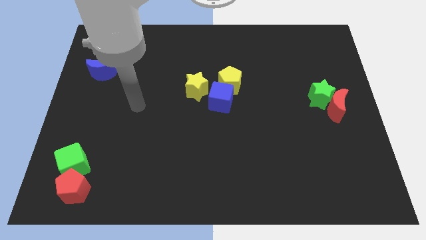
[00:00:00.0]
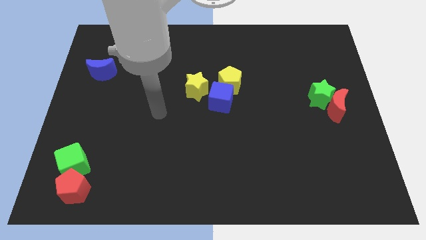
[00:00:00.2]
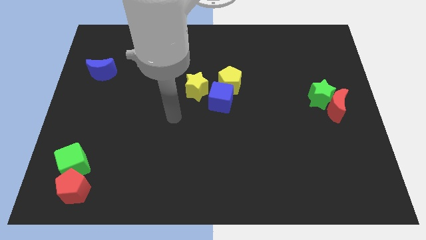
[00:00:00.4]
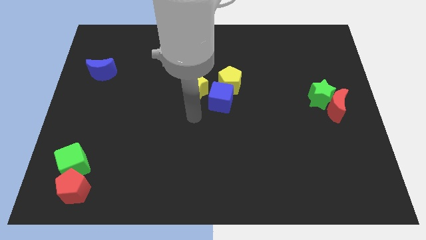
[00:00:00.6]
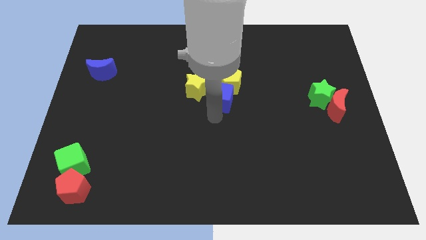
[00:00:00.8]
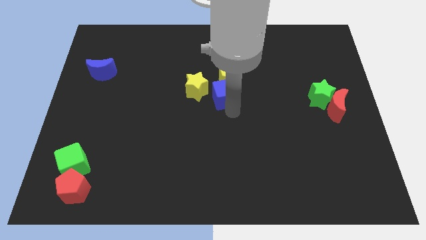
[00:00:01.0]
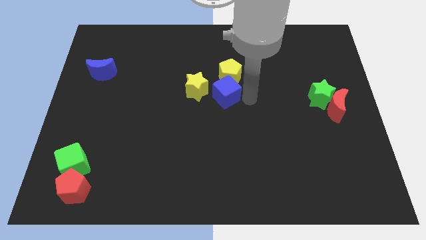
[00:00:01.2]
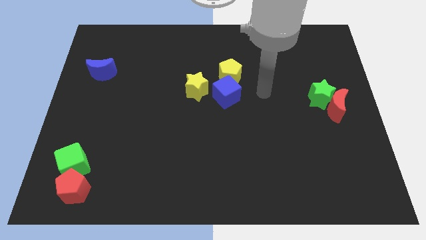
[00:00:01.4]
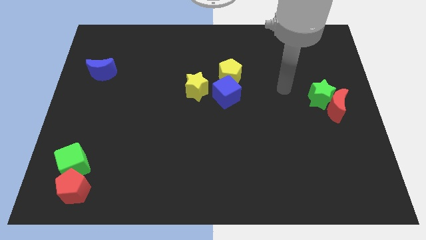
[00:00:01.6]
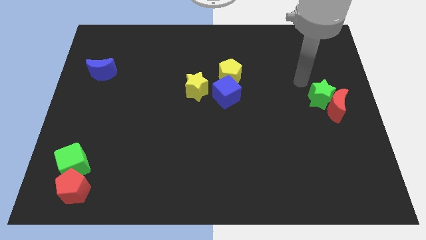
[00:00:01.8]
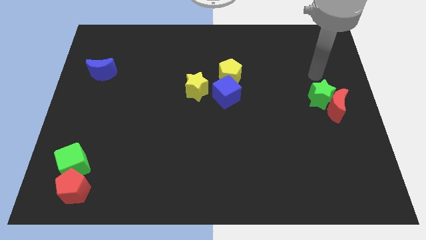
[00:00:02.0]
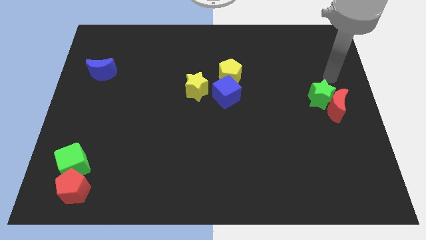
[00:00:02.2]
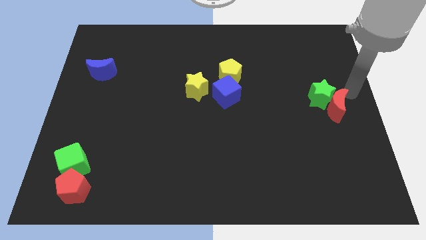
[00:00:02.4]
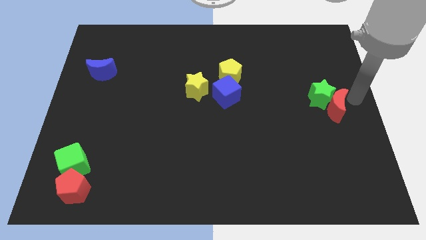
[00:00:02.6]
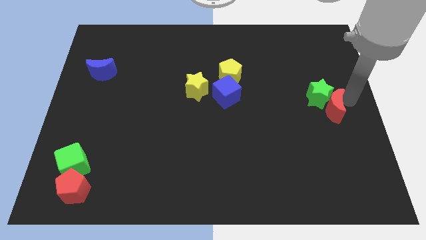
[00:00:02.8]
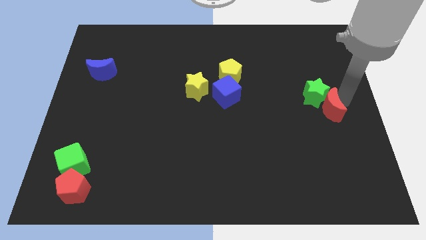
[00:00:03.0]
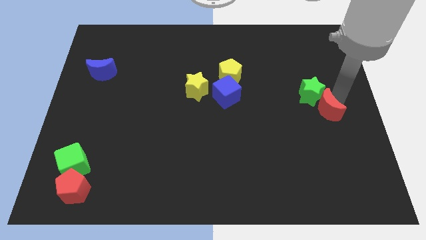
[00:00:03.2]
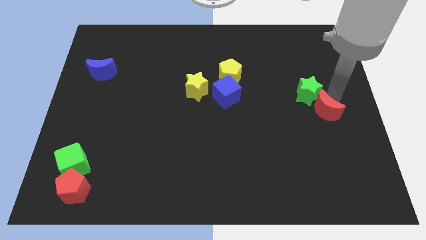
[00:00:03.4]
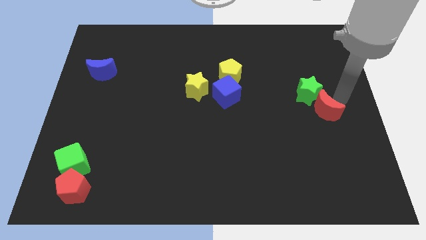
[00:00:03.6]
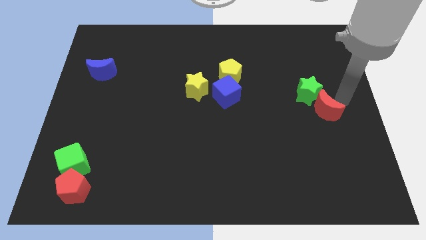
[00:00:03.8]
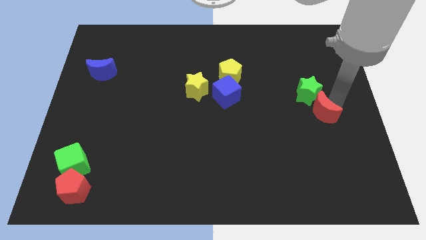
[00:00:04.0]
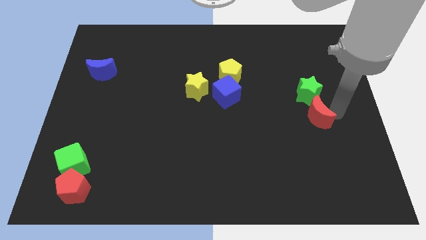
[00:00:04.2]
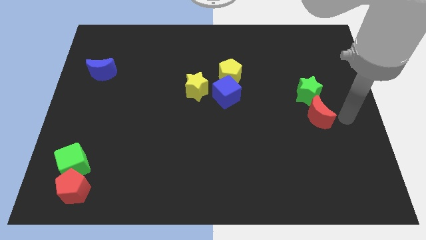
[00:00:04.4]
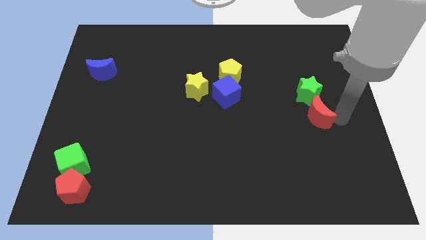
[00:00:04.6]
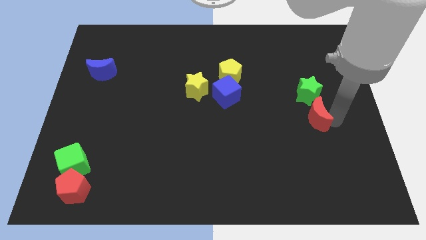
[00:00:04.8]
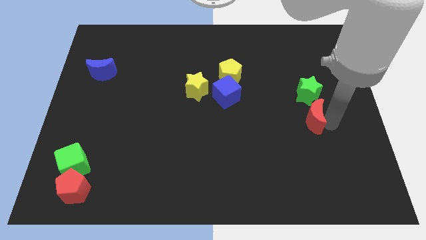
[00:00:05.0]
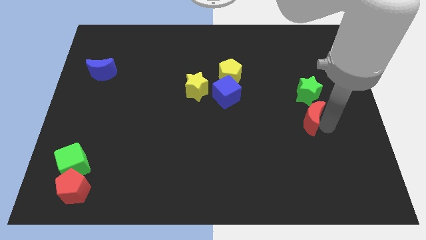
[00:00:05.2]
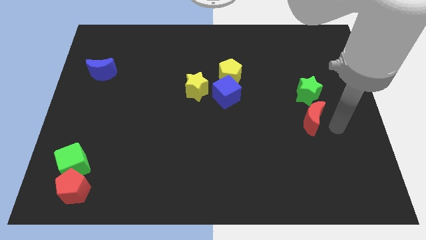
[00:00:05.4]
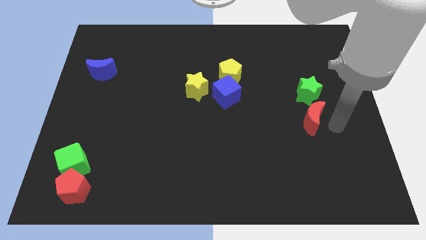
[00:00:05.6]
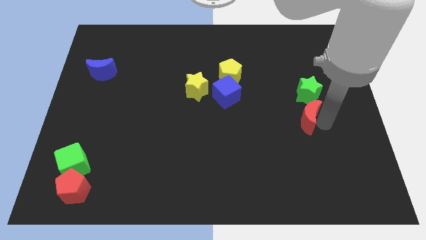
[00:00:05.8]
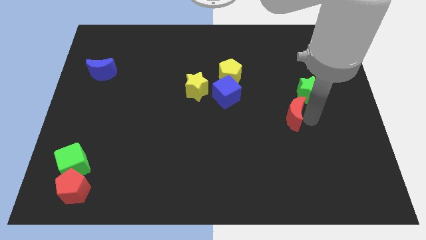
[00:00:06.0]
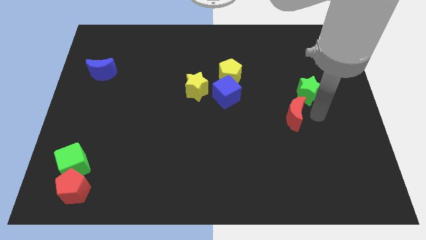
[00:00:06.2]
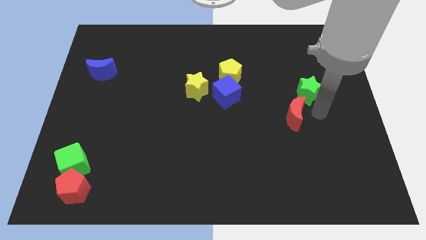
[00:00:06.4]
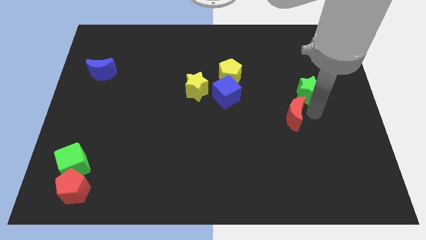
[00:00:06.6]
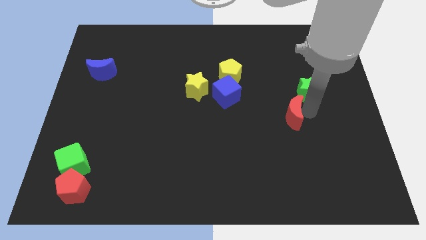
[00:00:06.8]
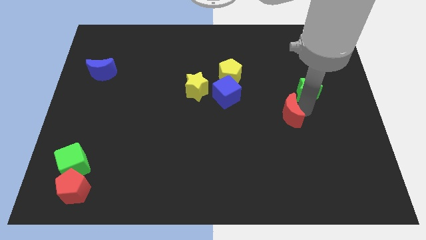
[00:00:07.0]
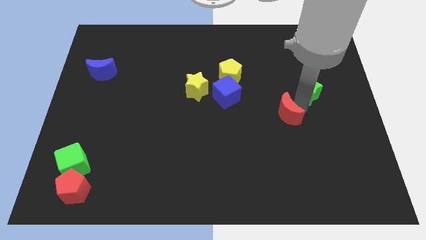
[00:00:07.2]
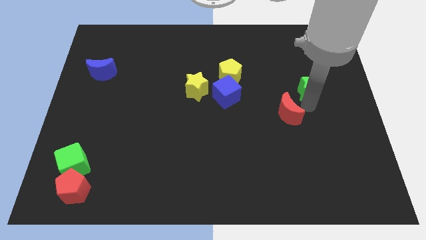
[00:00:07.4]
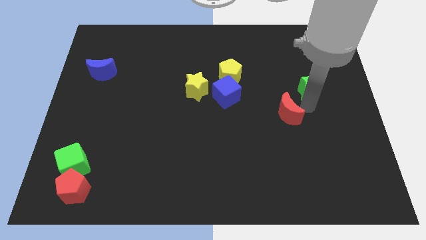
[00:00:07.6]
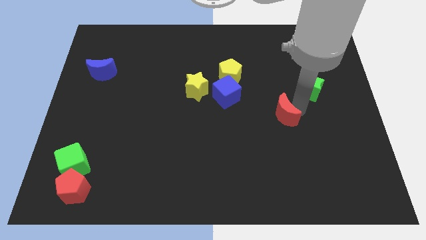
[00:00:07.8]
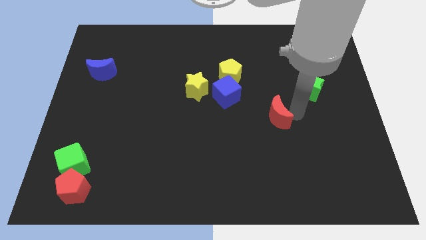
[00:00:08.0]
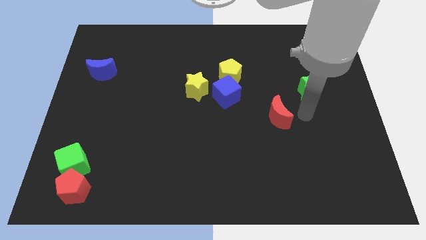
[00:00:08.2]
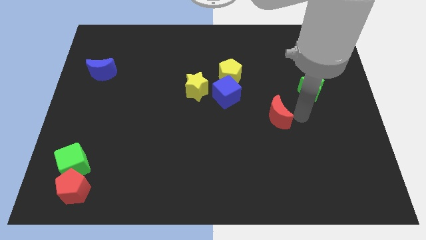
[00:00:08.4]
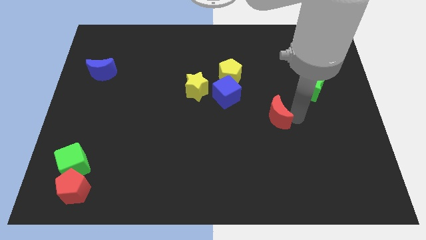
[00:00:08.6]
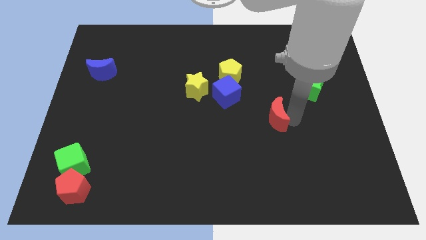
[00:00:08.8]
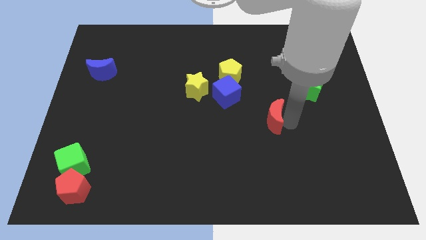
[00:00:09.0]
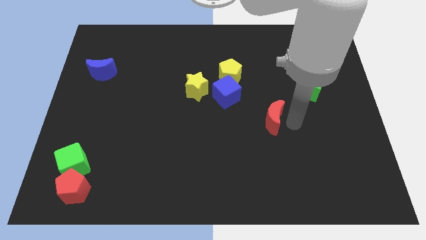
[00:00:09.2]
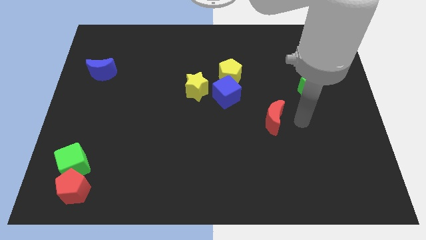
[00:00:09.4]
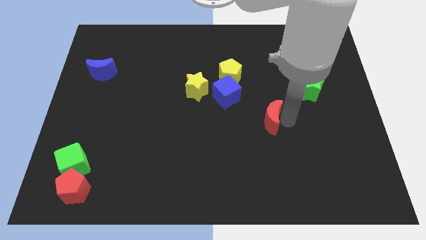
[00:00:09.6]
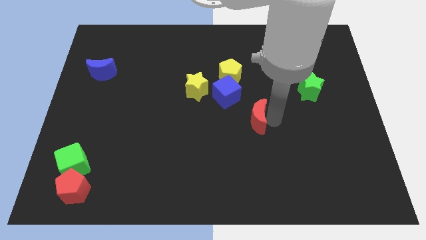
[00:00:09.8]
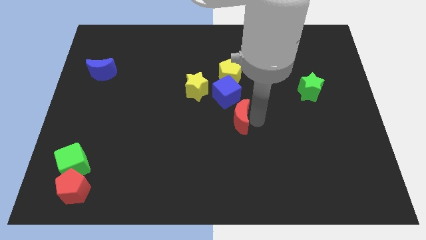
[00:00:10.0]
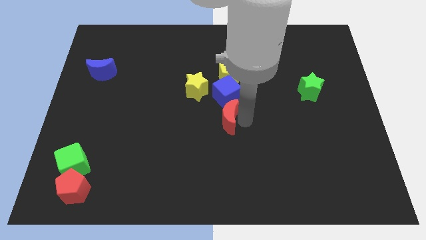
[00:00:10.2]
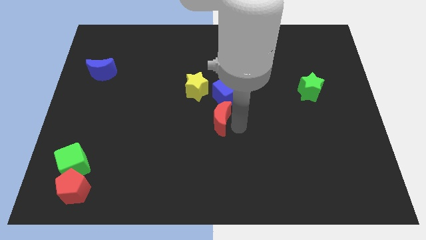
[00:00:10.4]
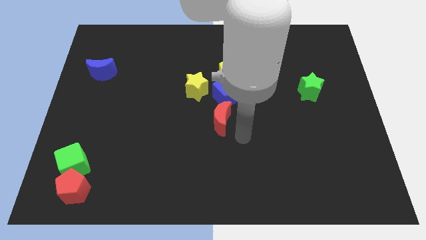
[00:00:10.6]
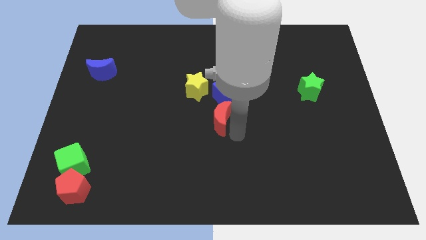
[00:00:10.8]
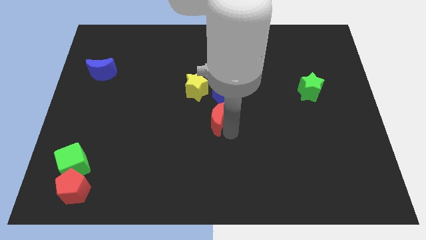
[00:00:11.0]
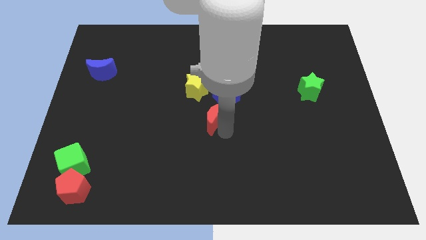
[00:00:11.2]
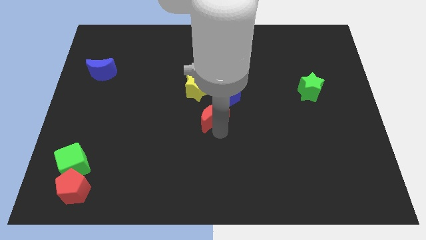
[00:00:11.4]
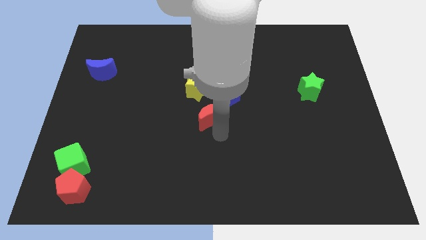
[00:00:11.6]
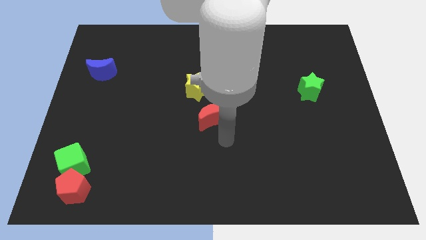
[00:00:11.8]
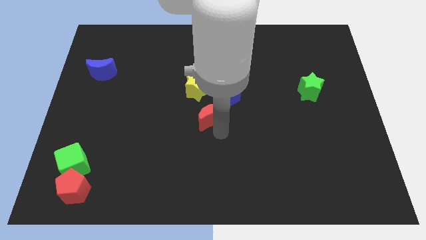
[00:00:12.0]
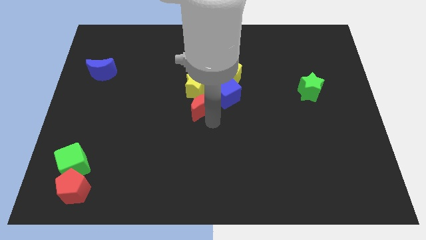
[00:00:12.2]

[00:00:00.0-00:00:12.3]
slide the red moon close to the yellow star

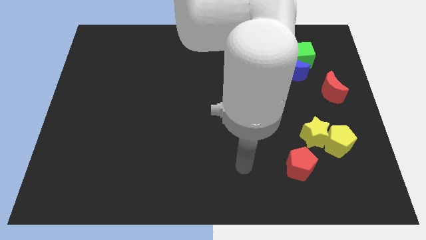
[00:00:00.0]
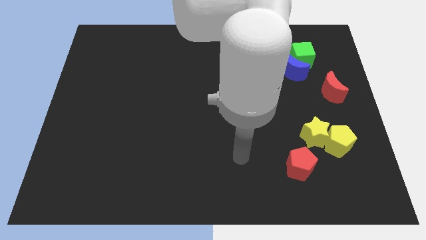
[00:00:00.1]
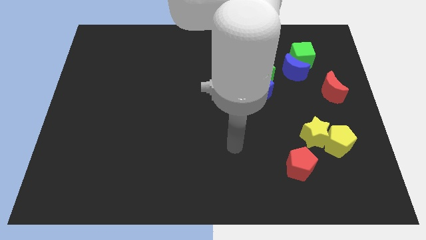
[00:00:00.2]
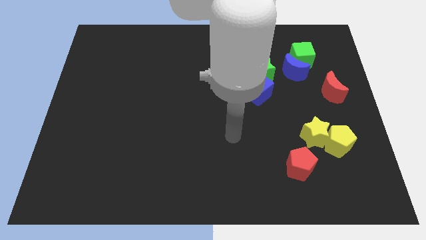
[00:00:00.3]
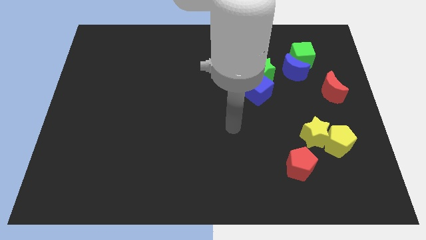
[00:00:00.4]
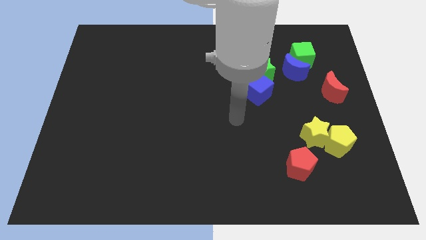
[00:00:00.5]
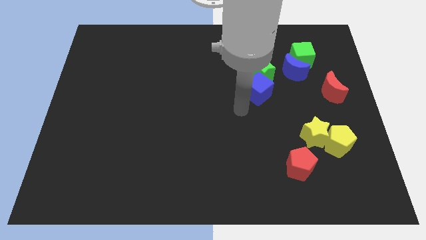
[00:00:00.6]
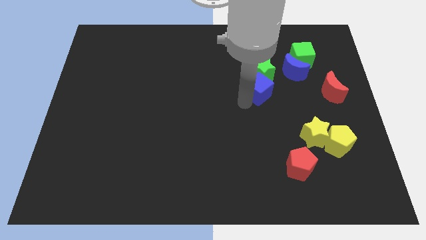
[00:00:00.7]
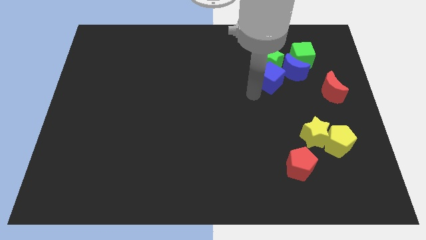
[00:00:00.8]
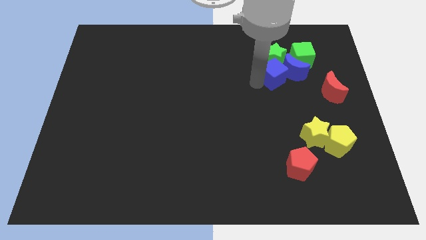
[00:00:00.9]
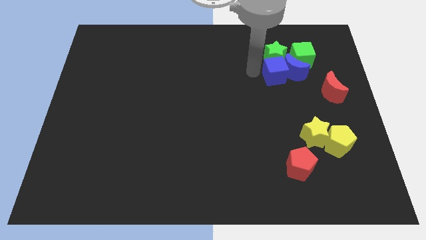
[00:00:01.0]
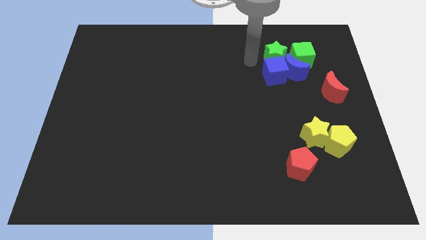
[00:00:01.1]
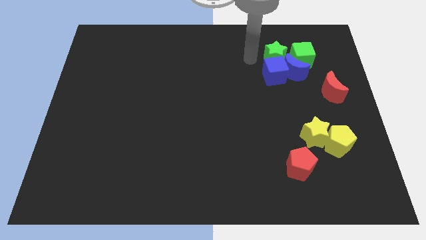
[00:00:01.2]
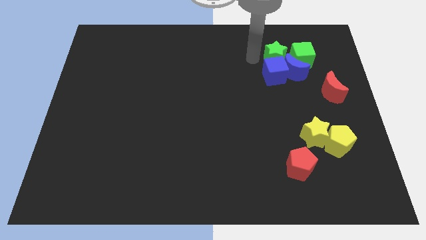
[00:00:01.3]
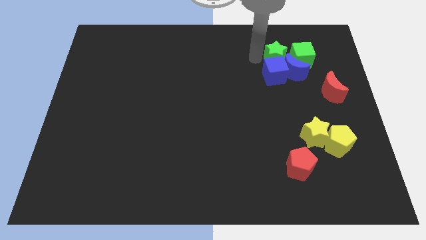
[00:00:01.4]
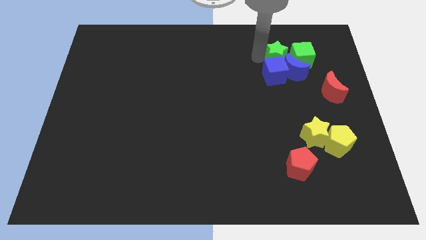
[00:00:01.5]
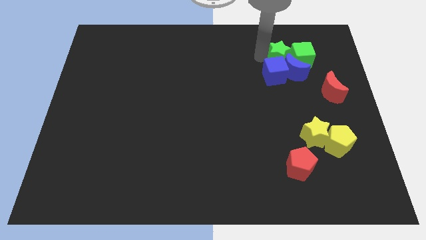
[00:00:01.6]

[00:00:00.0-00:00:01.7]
put the green star close to the green cube

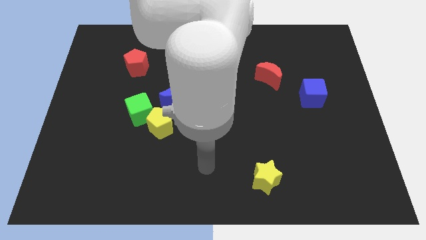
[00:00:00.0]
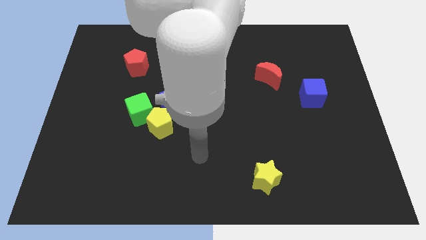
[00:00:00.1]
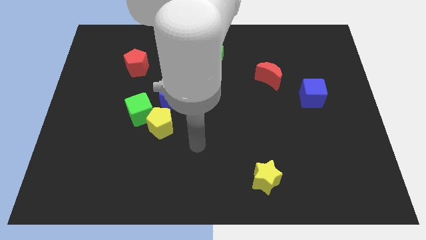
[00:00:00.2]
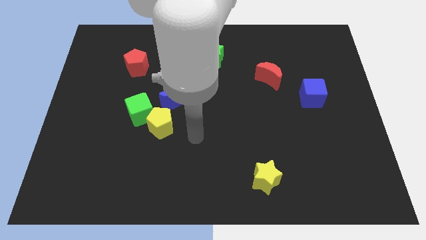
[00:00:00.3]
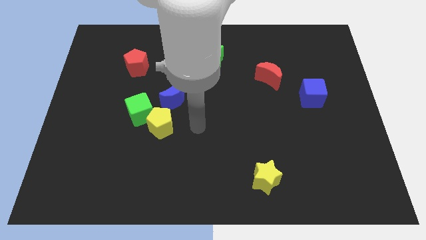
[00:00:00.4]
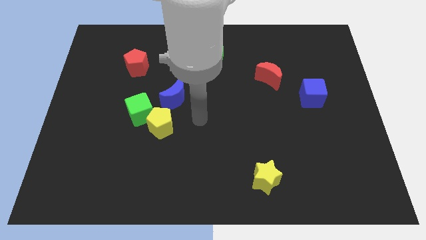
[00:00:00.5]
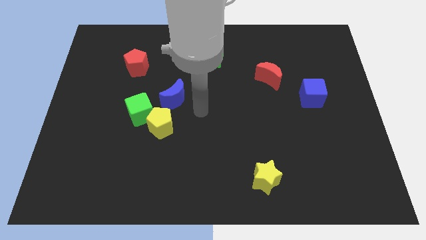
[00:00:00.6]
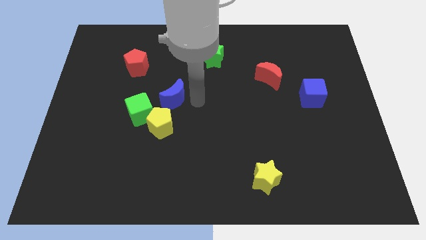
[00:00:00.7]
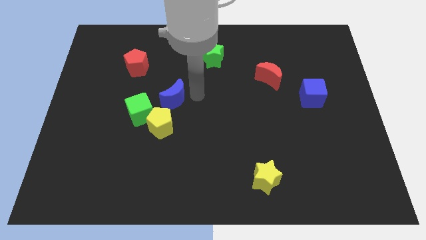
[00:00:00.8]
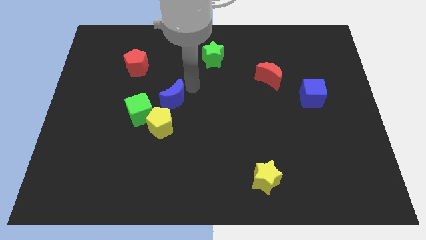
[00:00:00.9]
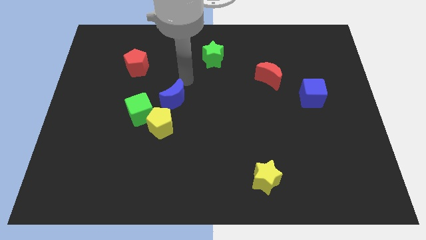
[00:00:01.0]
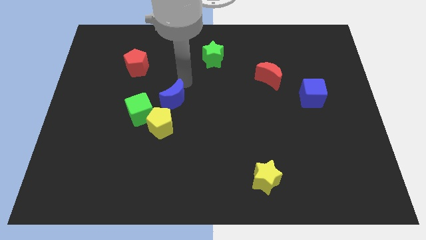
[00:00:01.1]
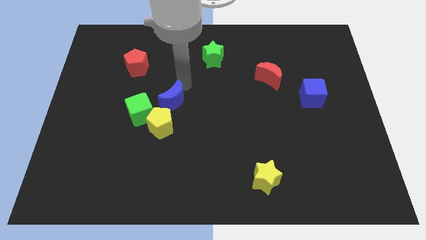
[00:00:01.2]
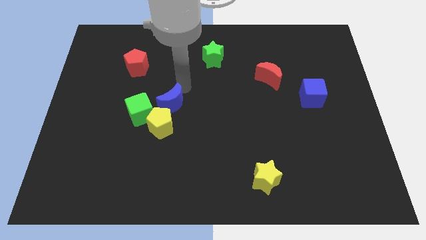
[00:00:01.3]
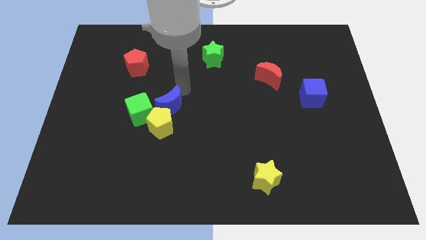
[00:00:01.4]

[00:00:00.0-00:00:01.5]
slide the blue moon towards the yellow pentagon
